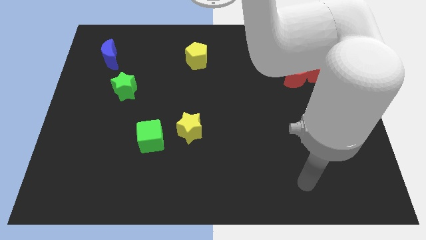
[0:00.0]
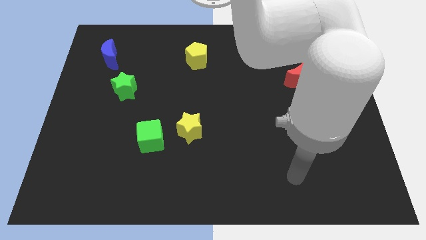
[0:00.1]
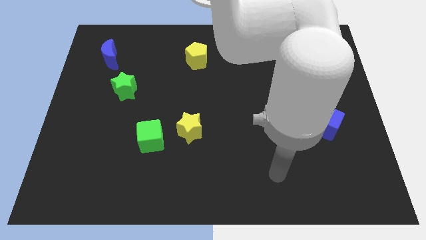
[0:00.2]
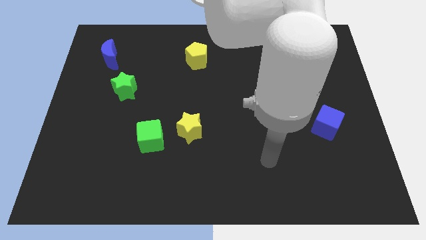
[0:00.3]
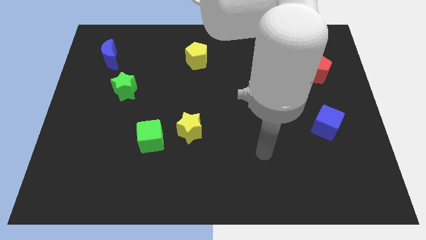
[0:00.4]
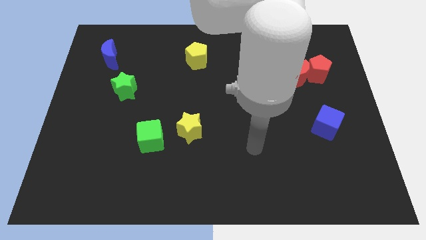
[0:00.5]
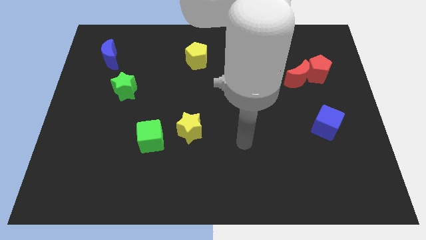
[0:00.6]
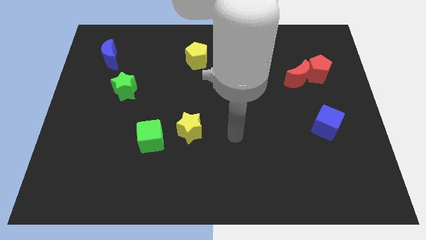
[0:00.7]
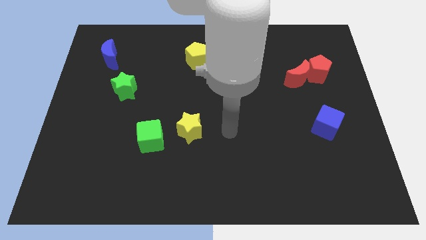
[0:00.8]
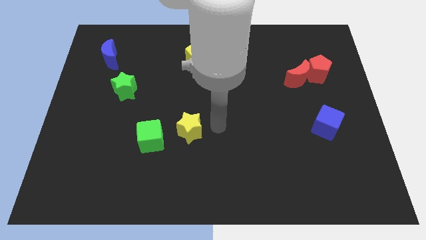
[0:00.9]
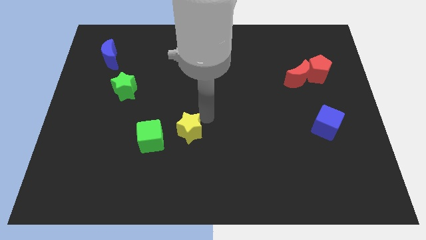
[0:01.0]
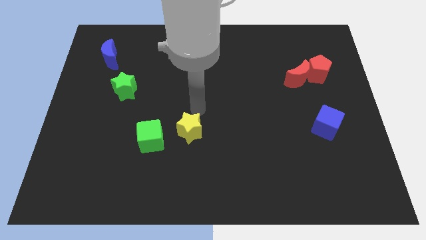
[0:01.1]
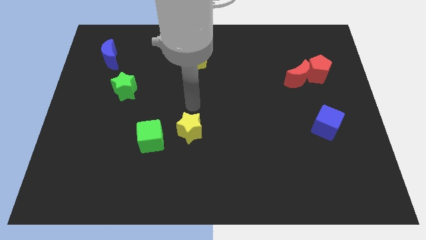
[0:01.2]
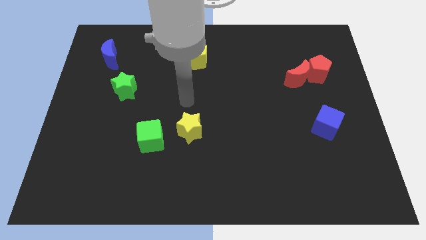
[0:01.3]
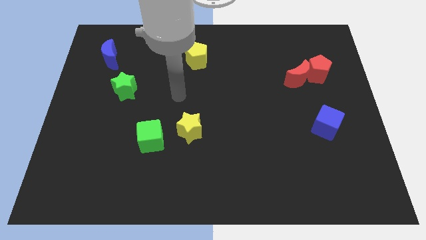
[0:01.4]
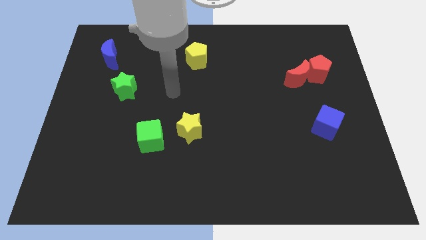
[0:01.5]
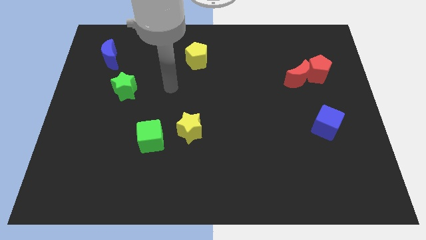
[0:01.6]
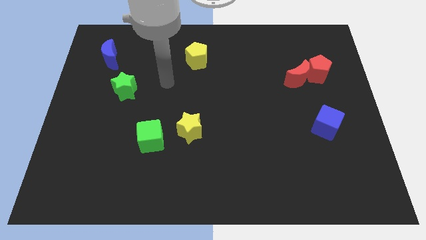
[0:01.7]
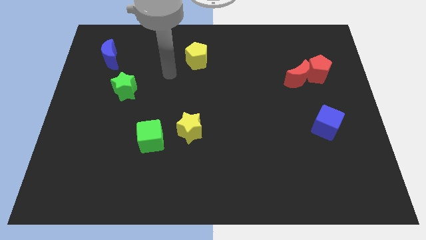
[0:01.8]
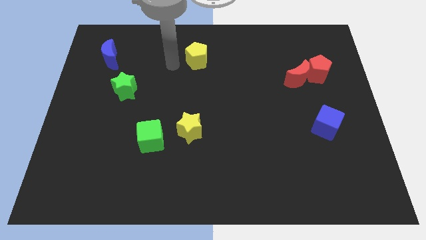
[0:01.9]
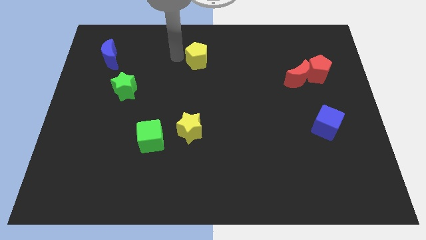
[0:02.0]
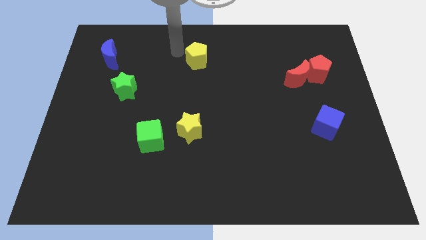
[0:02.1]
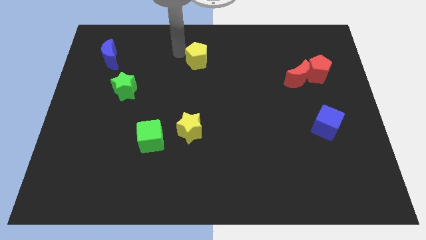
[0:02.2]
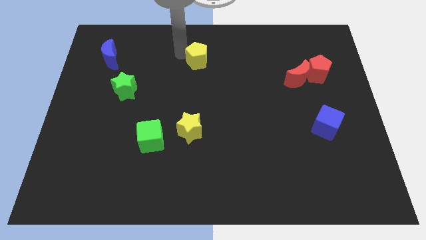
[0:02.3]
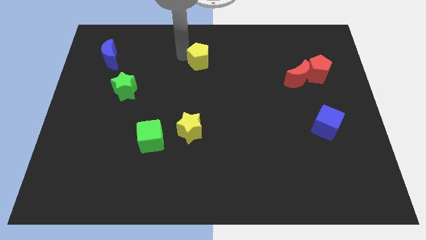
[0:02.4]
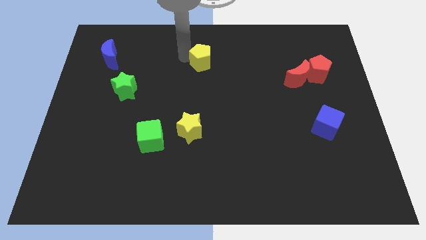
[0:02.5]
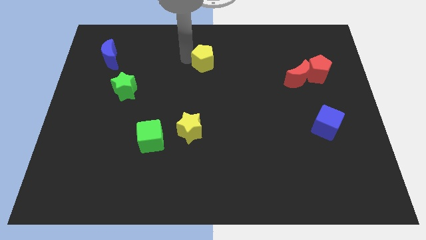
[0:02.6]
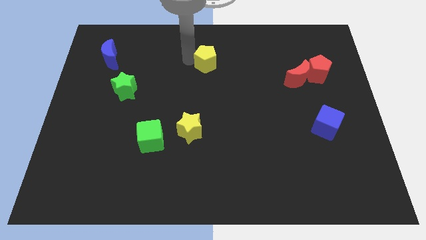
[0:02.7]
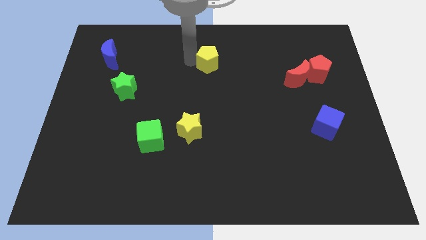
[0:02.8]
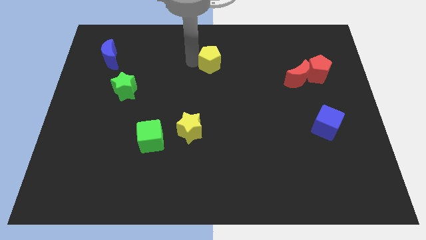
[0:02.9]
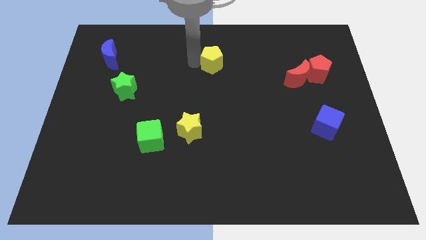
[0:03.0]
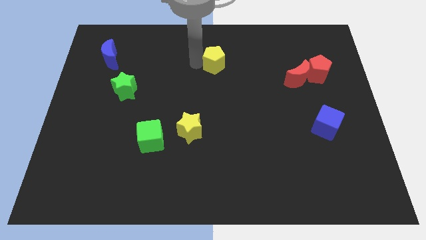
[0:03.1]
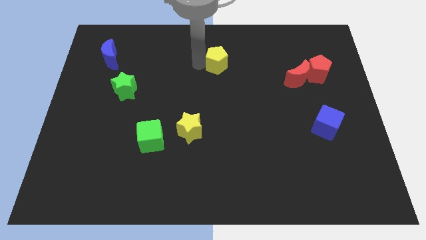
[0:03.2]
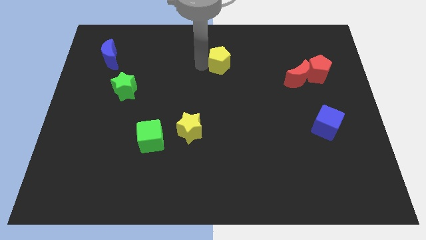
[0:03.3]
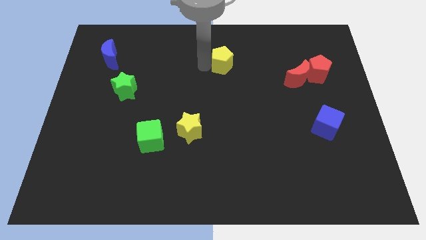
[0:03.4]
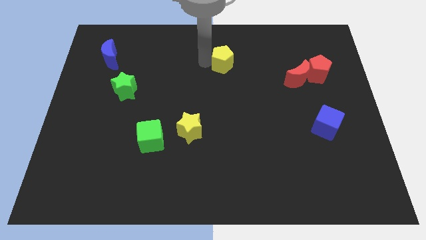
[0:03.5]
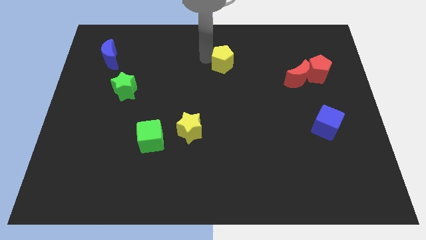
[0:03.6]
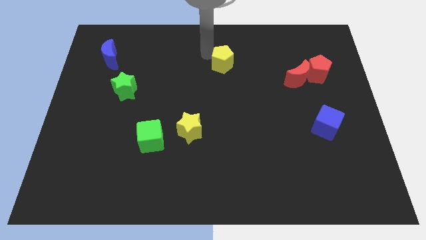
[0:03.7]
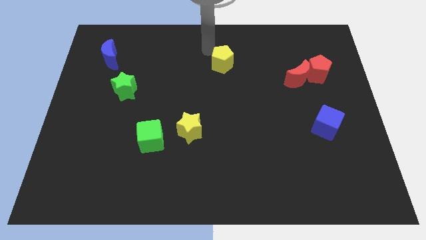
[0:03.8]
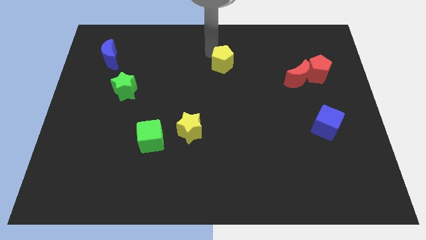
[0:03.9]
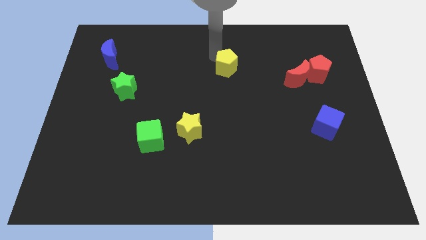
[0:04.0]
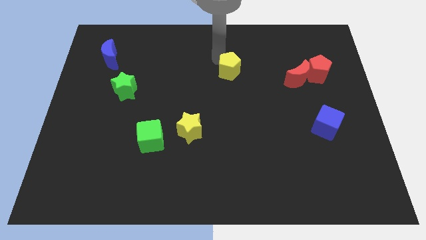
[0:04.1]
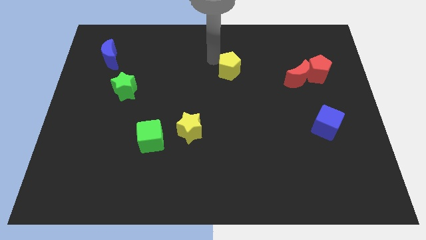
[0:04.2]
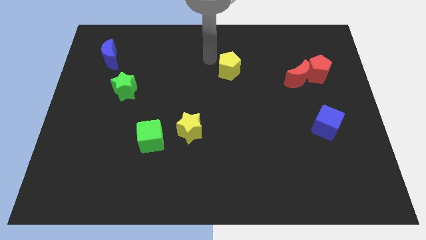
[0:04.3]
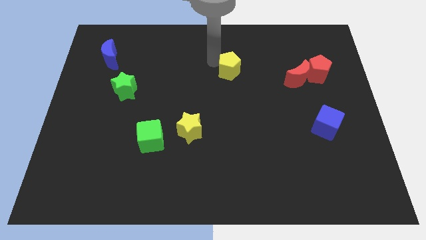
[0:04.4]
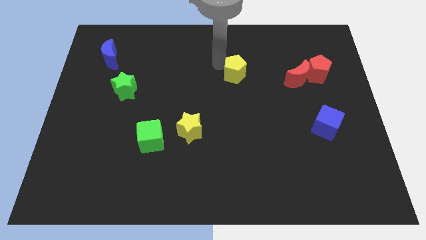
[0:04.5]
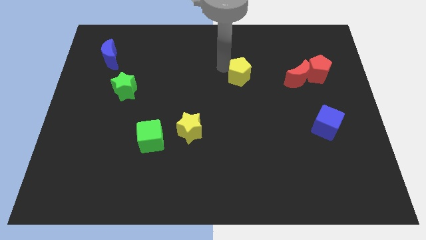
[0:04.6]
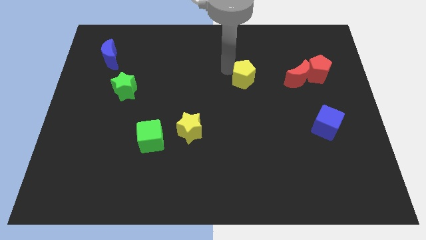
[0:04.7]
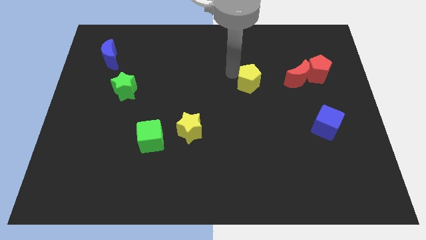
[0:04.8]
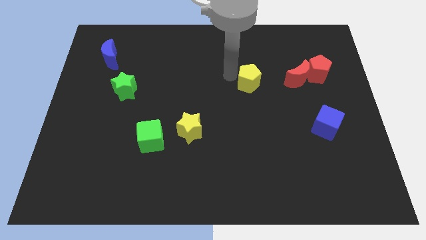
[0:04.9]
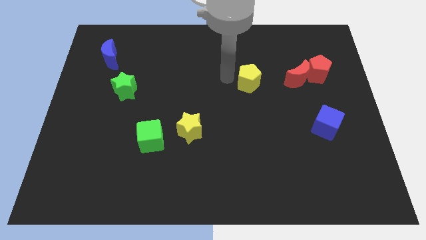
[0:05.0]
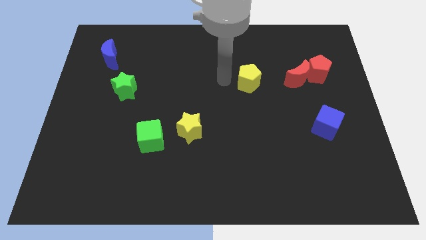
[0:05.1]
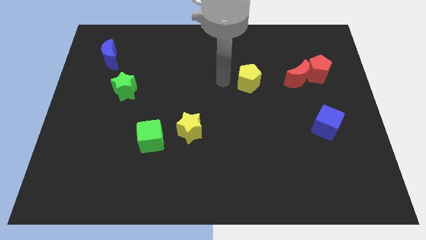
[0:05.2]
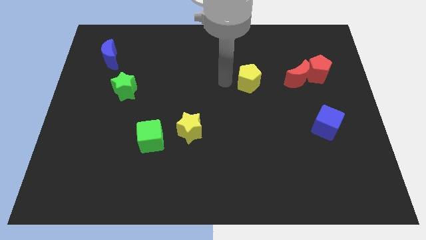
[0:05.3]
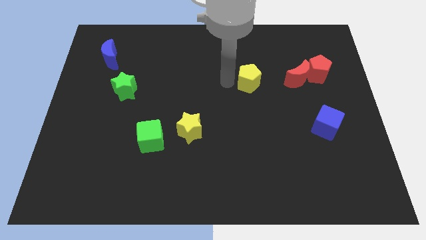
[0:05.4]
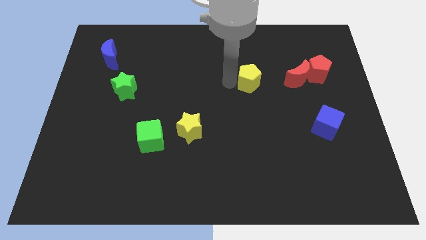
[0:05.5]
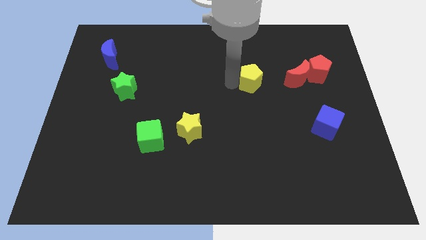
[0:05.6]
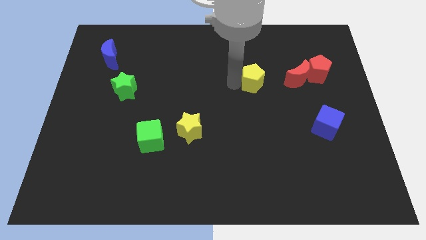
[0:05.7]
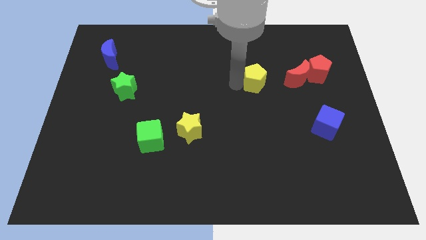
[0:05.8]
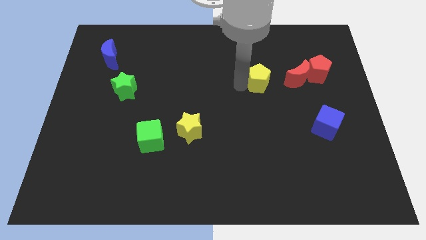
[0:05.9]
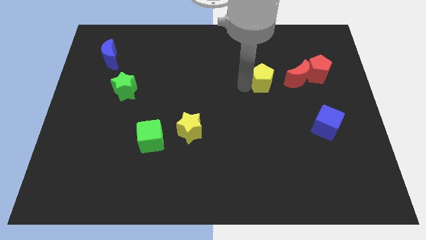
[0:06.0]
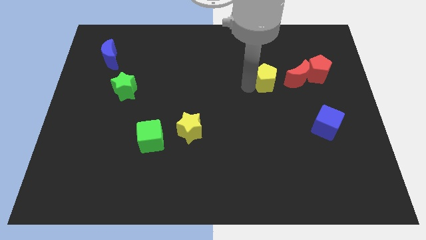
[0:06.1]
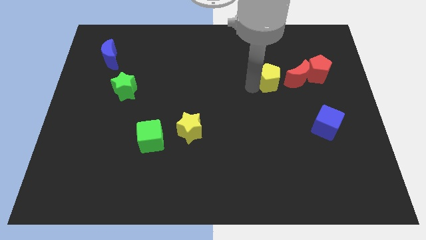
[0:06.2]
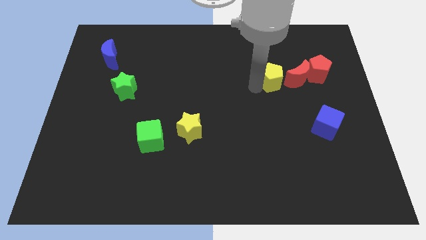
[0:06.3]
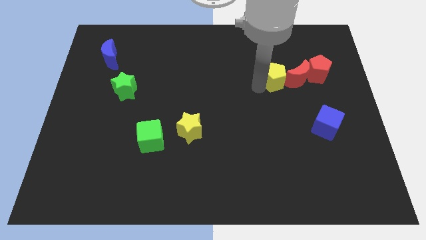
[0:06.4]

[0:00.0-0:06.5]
slide the yellow pentagon close to the red moon

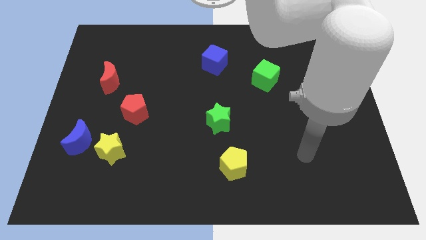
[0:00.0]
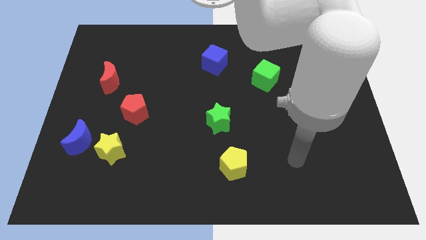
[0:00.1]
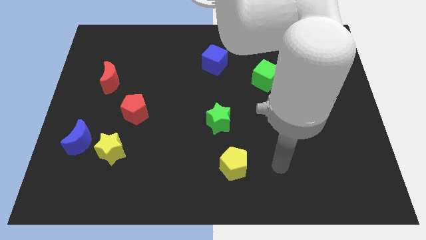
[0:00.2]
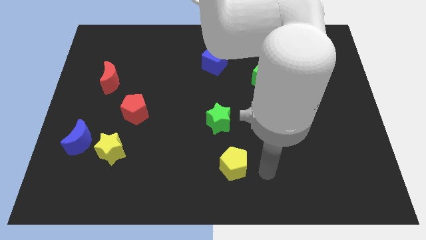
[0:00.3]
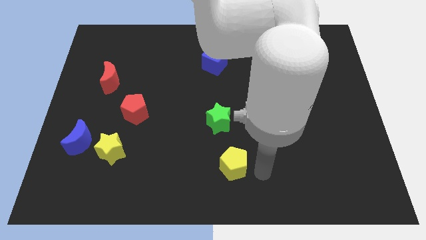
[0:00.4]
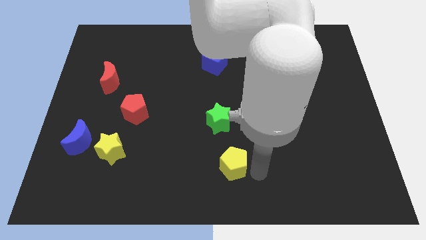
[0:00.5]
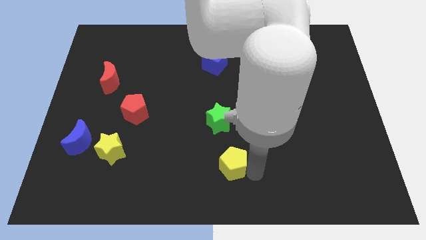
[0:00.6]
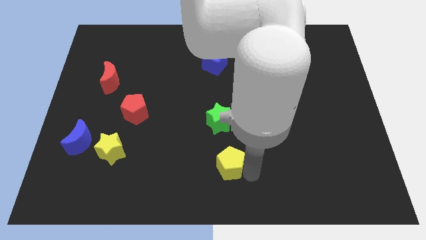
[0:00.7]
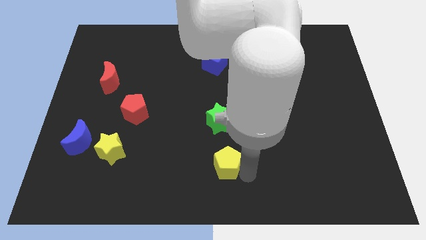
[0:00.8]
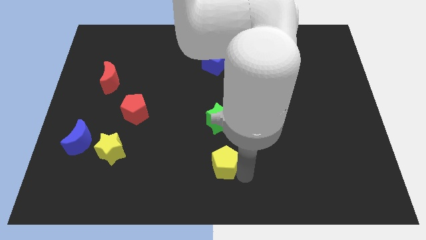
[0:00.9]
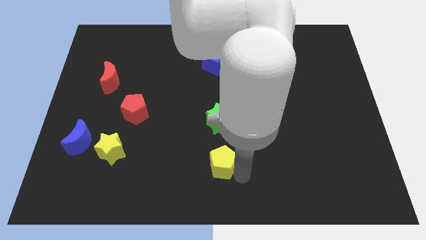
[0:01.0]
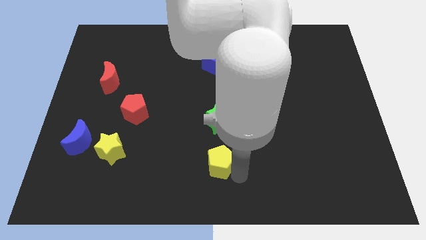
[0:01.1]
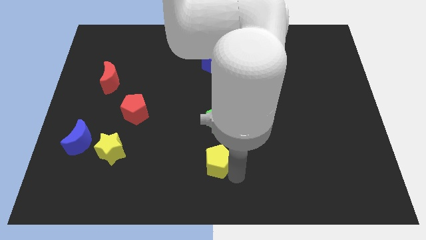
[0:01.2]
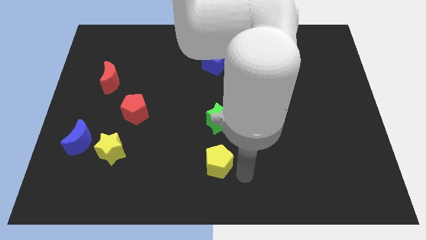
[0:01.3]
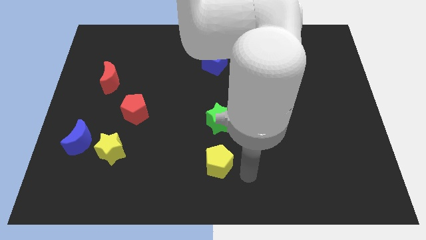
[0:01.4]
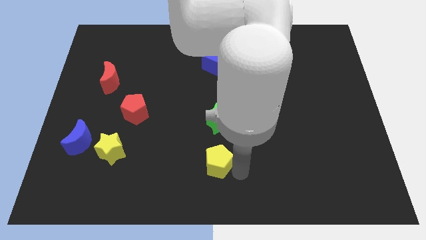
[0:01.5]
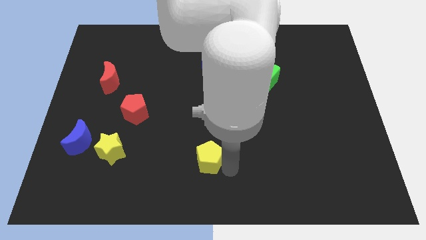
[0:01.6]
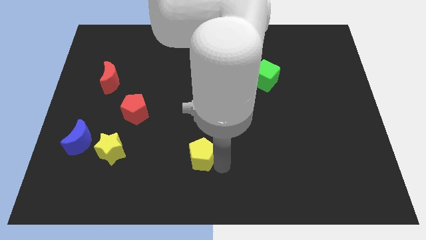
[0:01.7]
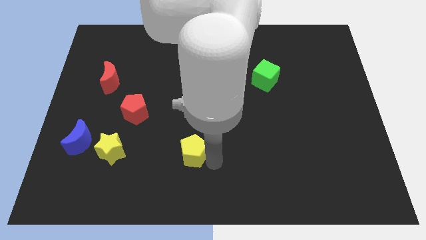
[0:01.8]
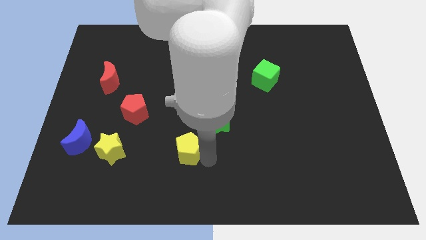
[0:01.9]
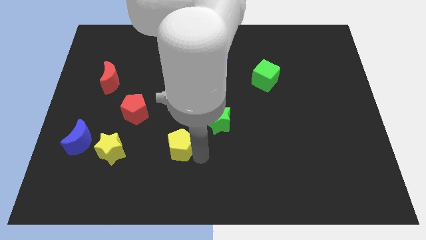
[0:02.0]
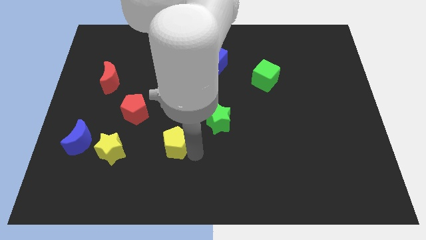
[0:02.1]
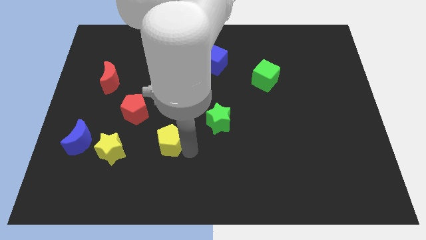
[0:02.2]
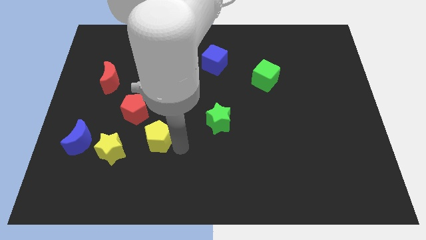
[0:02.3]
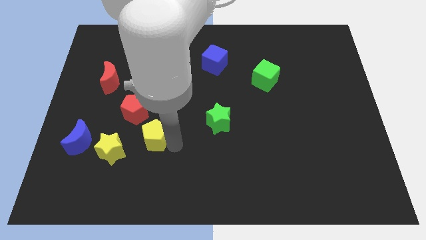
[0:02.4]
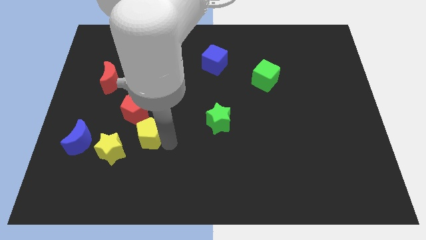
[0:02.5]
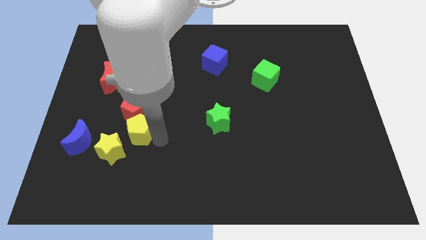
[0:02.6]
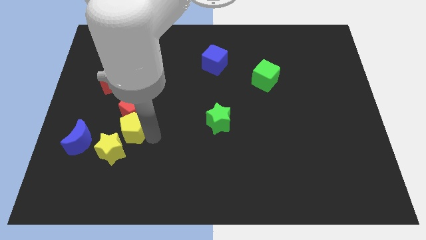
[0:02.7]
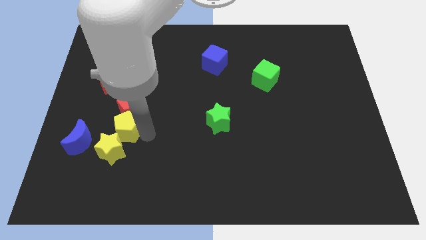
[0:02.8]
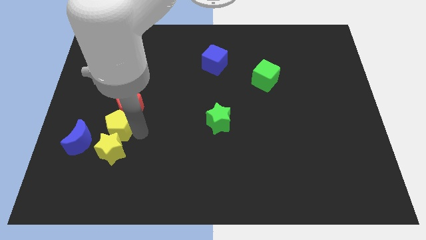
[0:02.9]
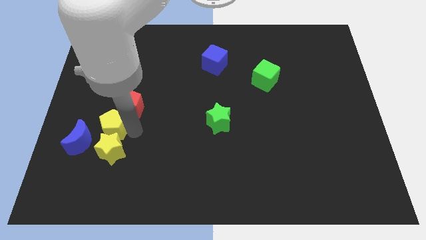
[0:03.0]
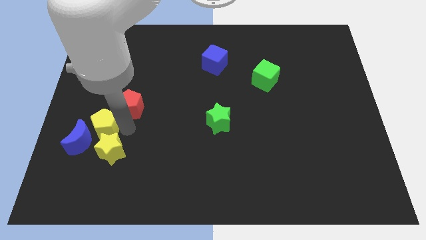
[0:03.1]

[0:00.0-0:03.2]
slide the yellow pentagon next to the blue moon
